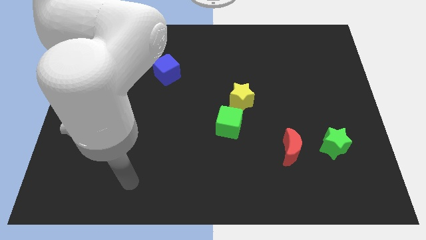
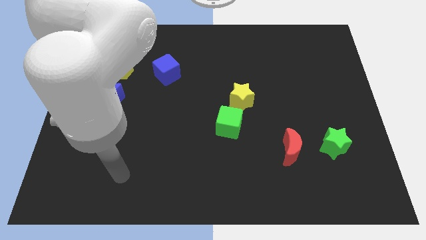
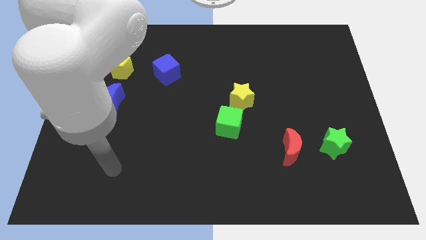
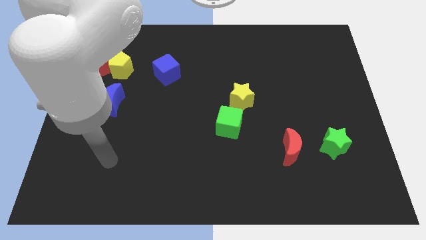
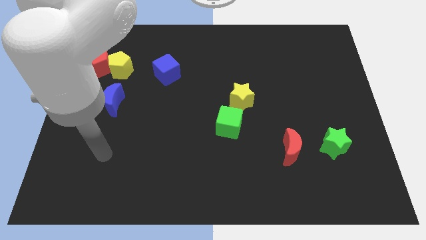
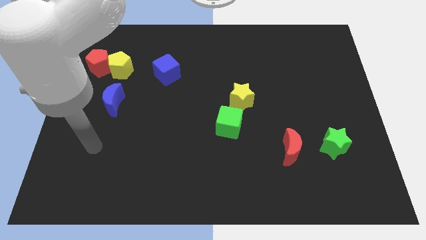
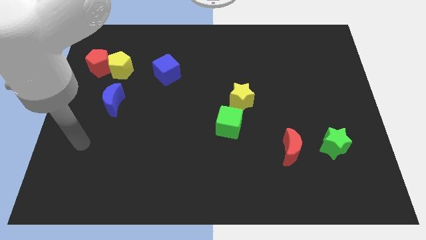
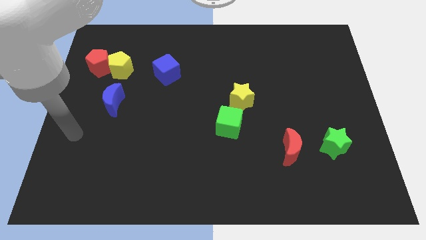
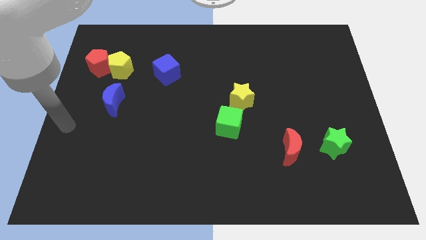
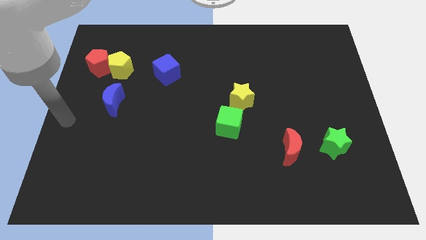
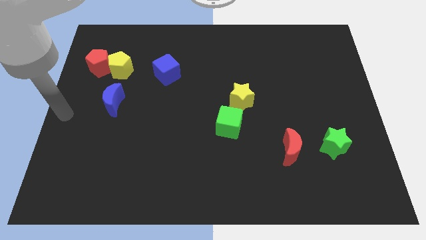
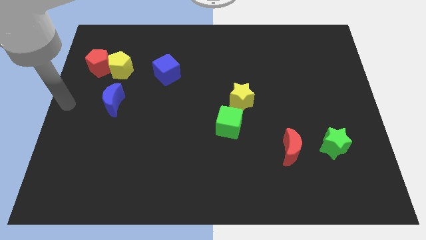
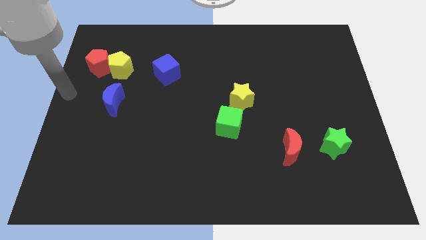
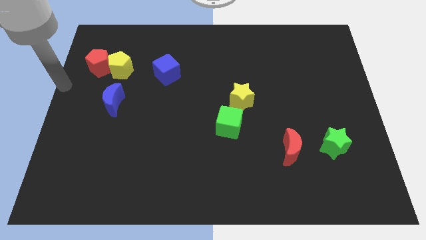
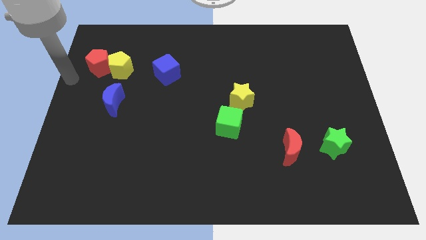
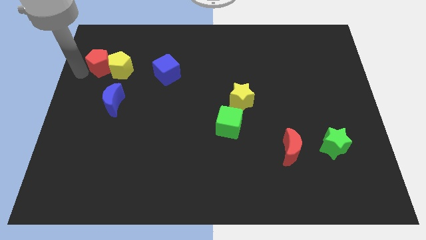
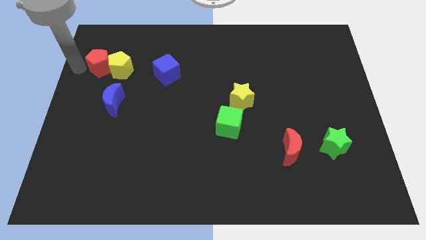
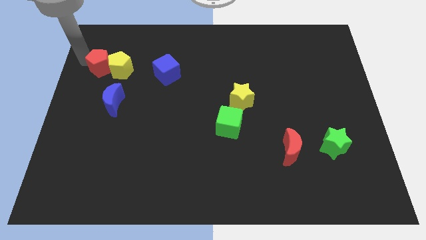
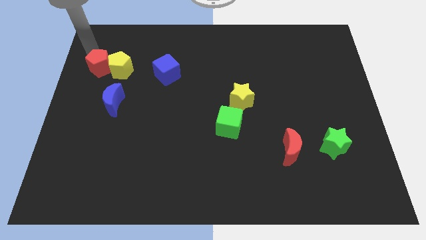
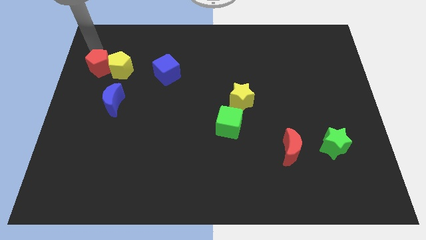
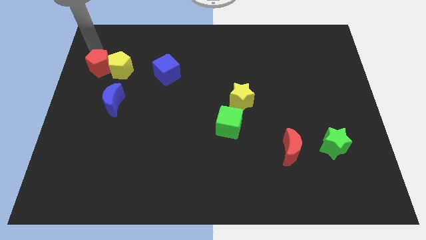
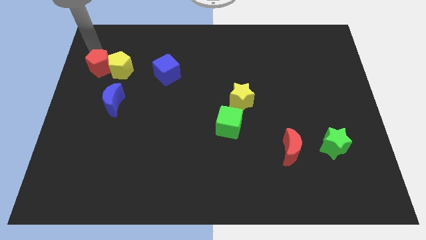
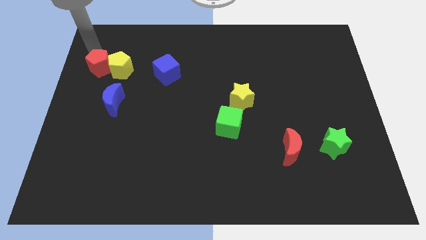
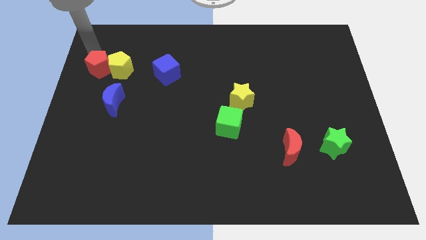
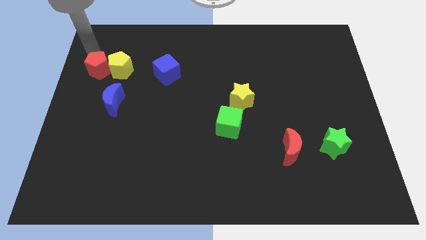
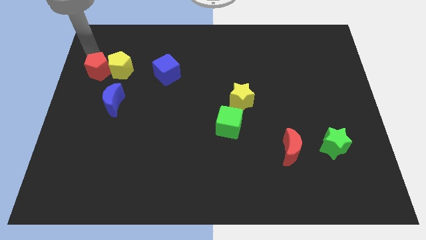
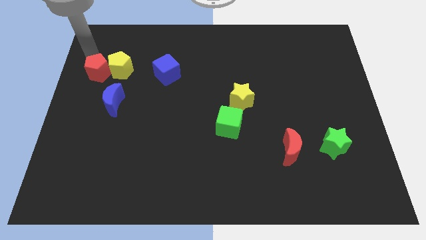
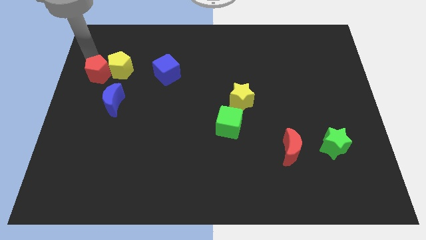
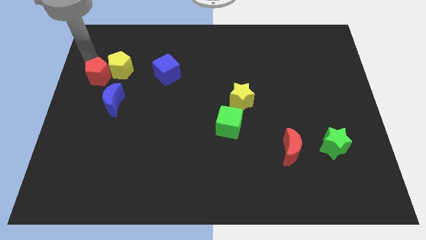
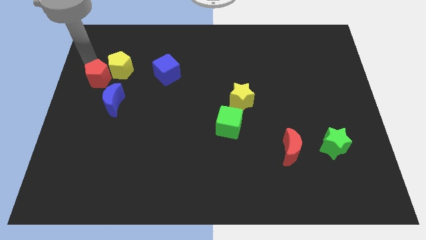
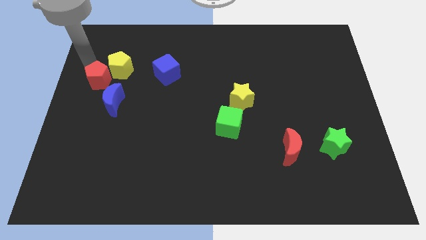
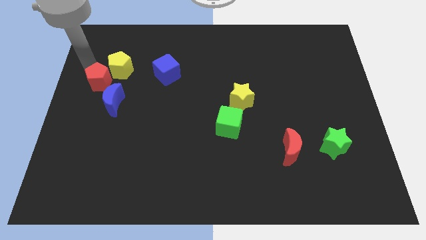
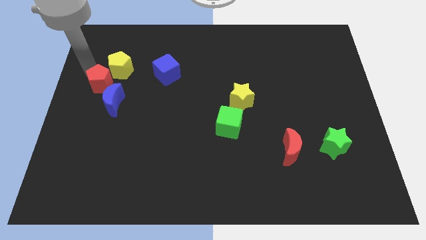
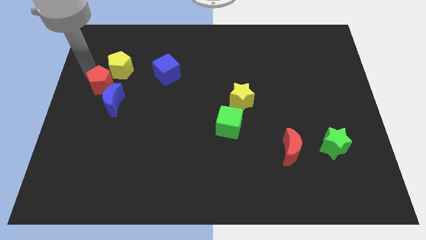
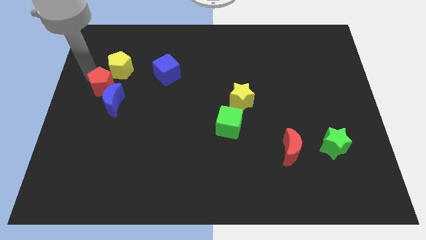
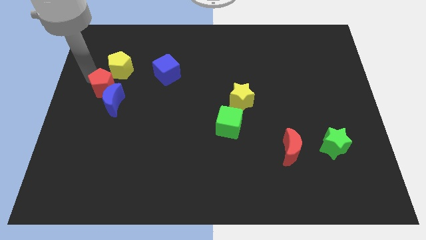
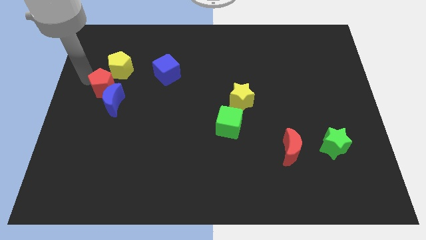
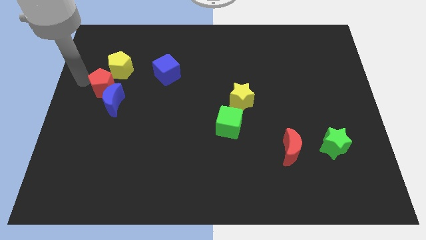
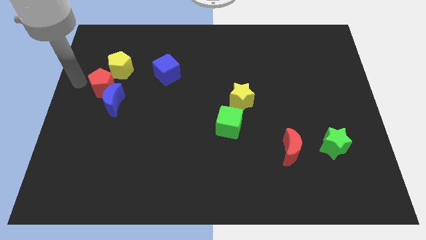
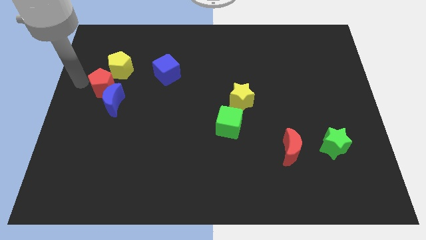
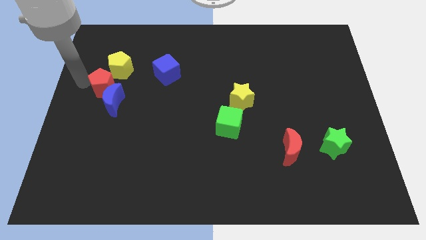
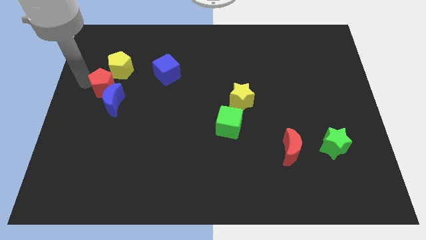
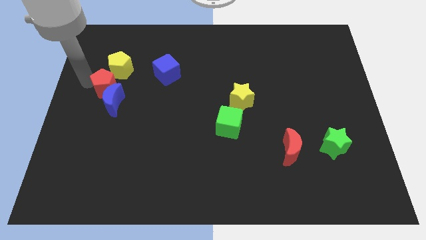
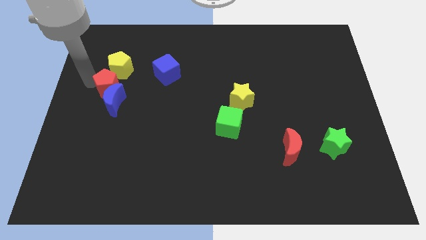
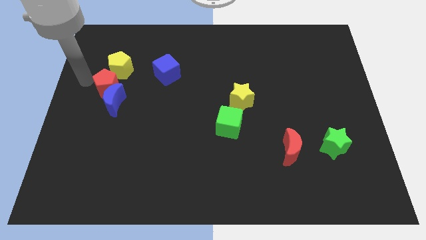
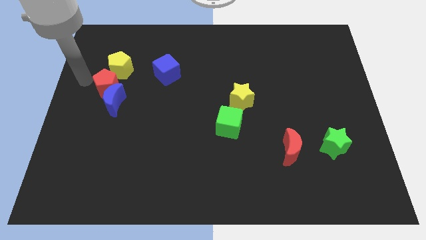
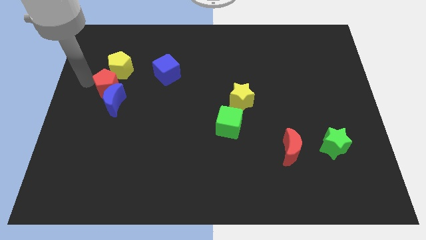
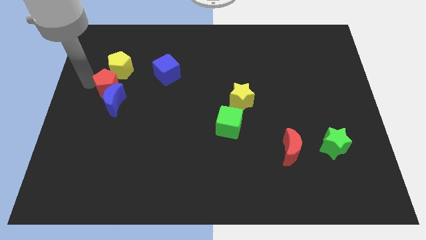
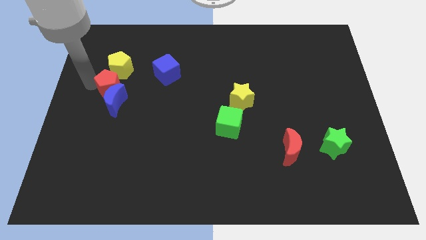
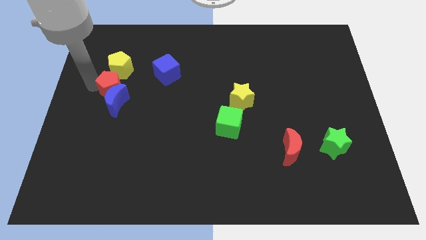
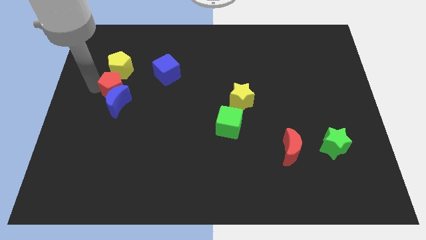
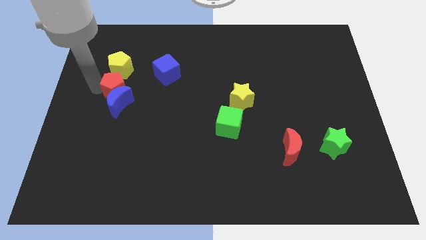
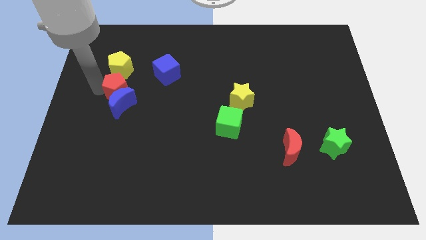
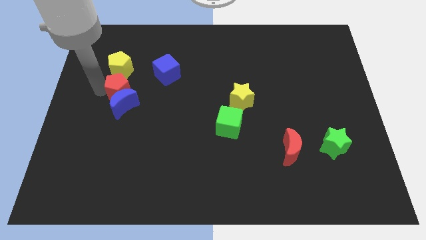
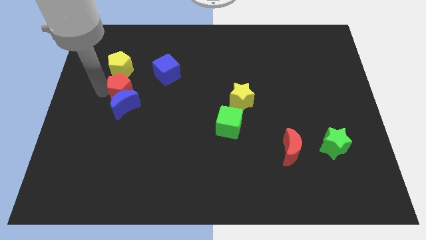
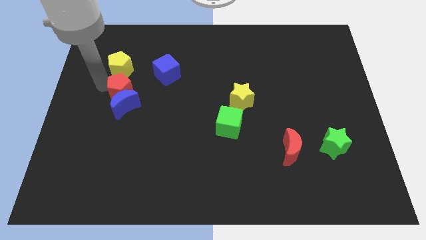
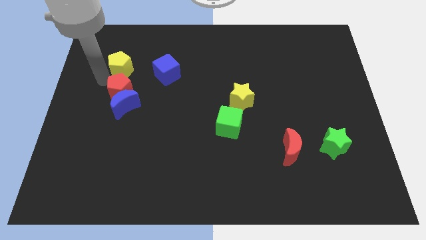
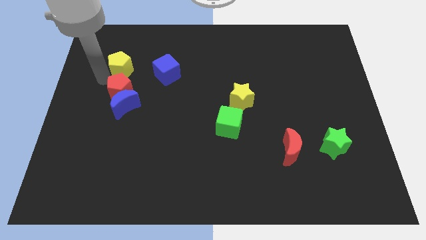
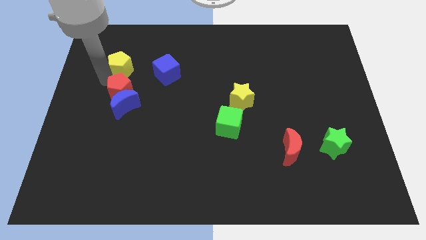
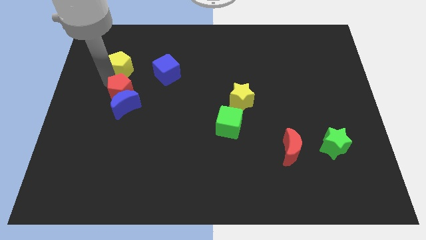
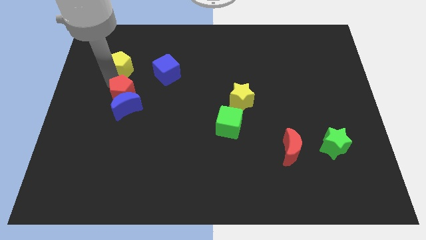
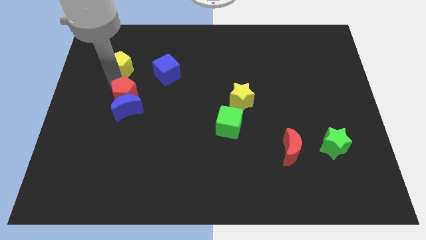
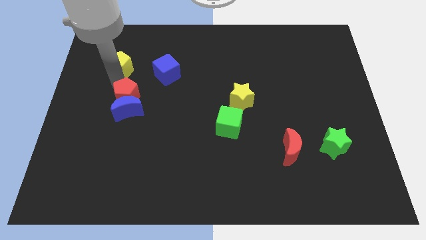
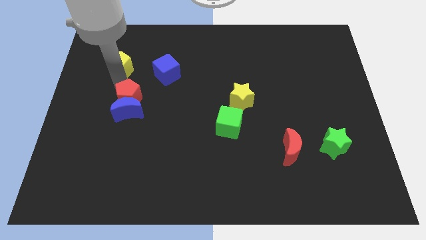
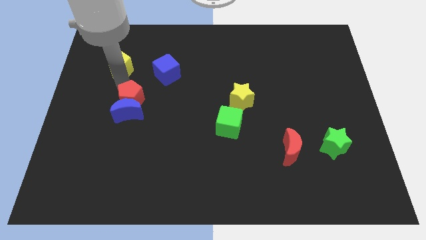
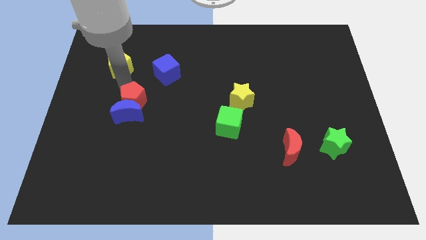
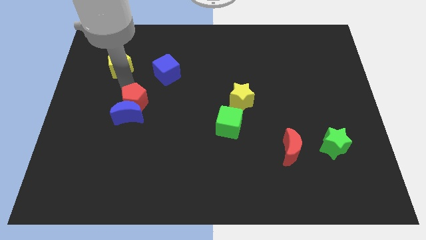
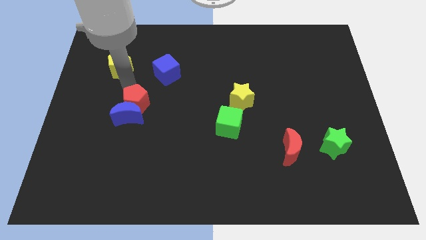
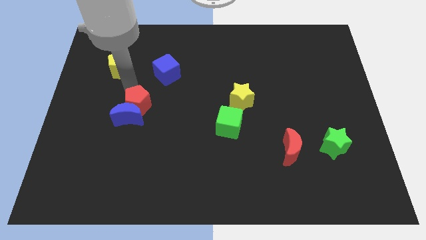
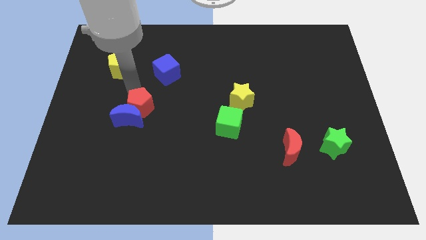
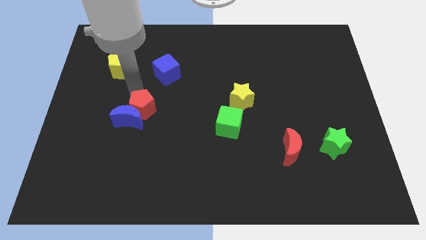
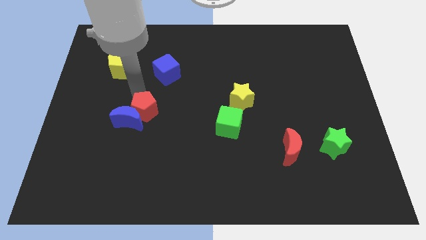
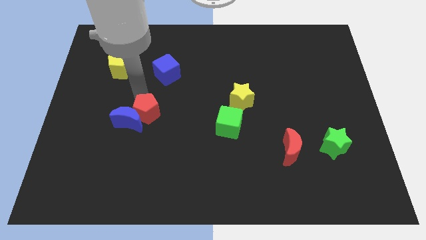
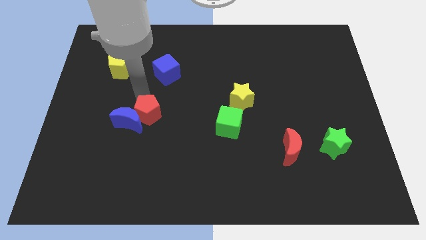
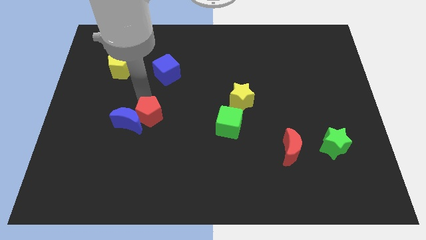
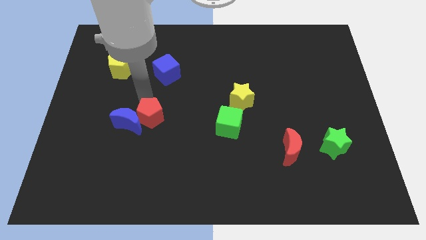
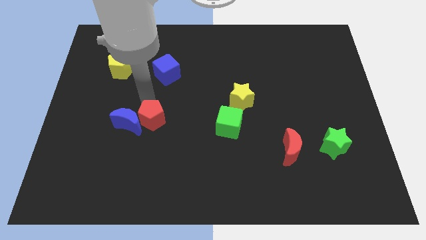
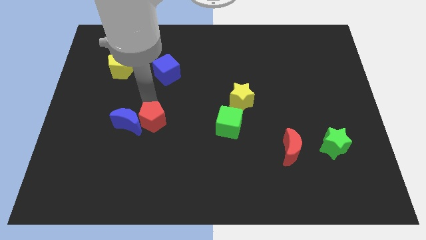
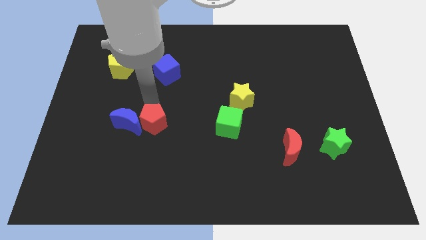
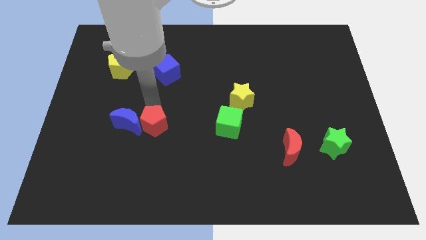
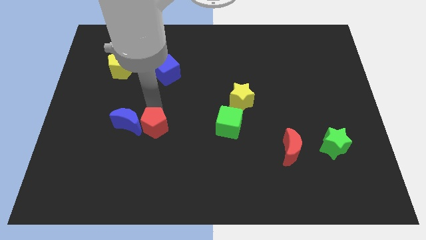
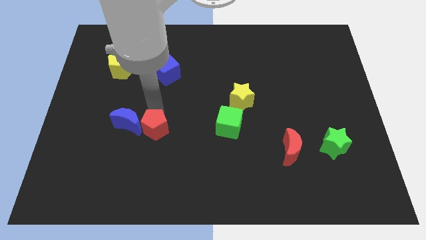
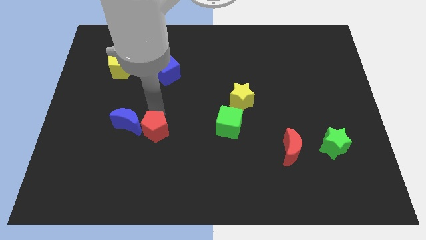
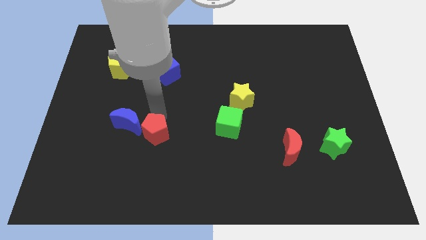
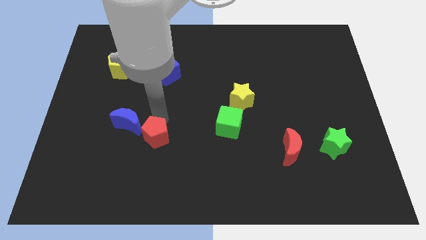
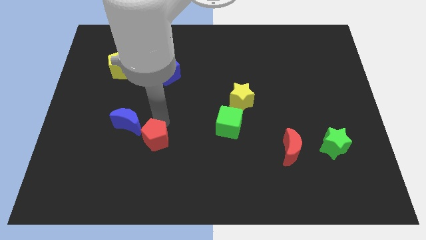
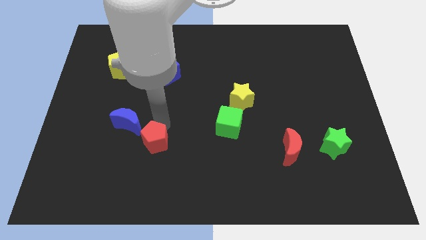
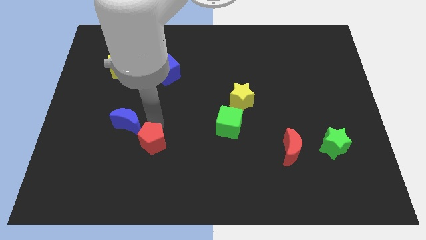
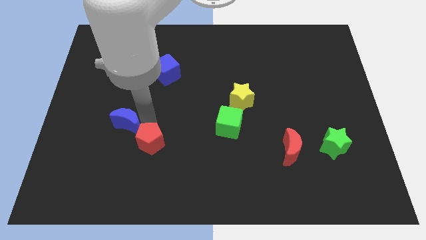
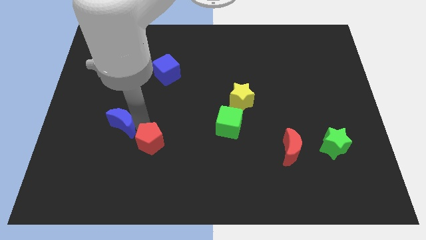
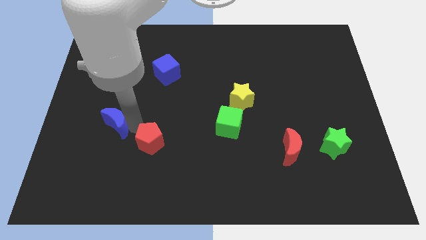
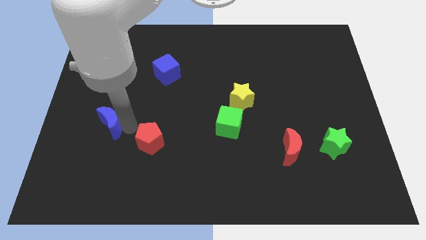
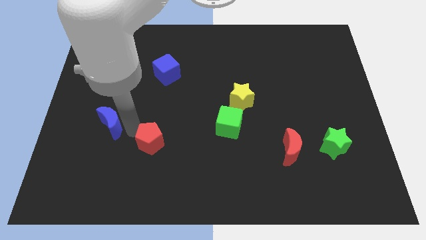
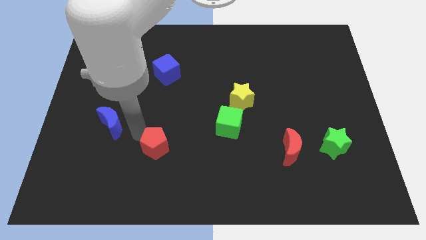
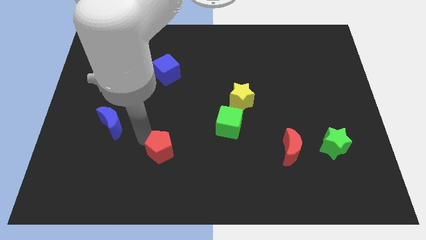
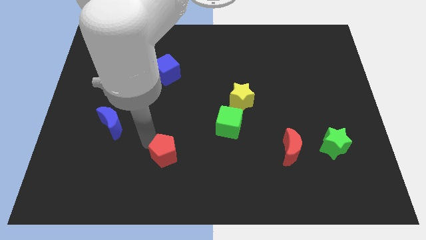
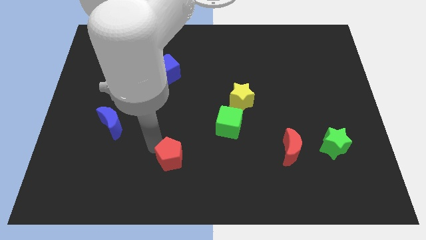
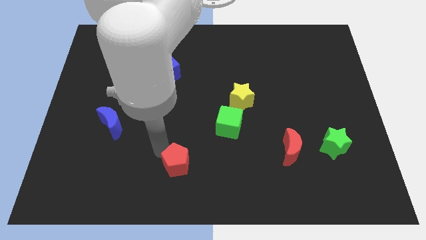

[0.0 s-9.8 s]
put the red pentagon to the bottom side
